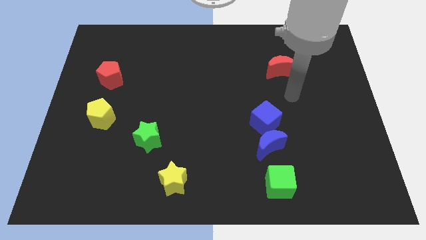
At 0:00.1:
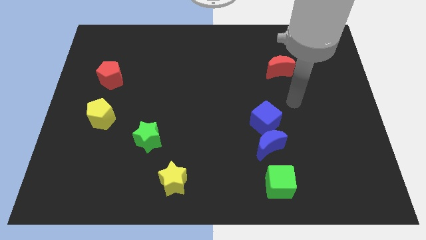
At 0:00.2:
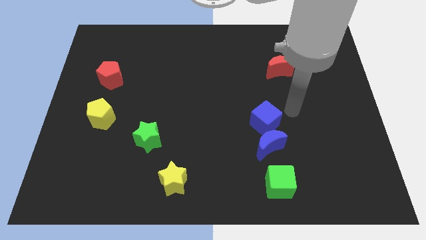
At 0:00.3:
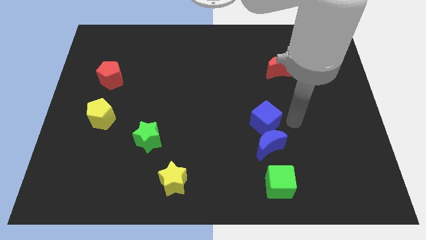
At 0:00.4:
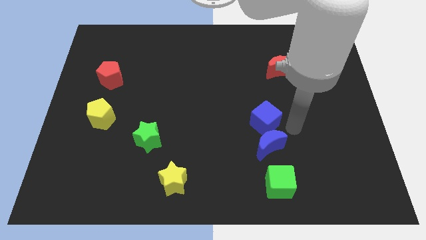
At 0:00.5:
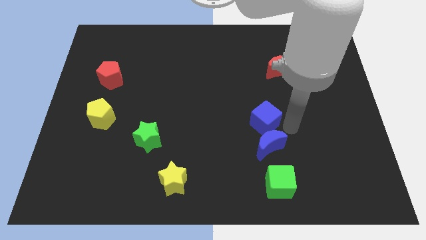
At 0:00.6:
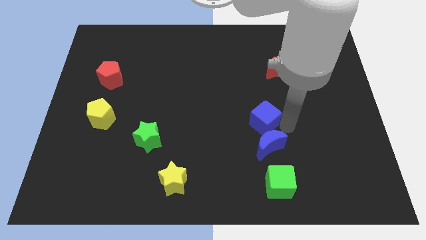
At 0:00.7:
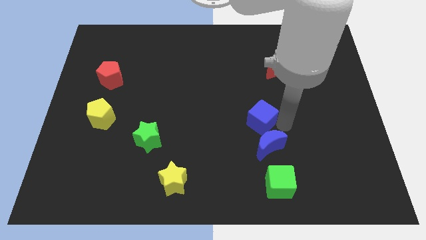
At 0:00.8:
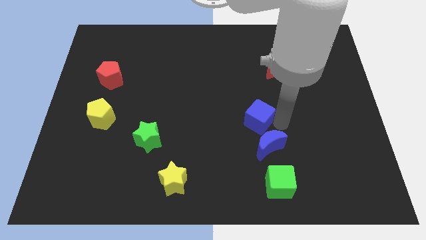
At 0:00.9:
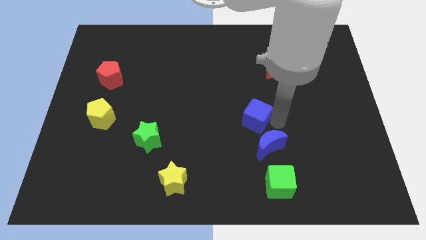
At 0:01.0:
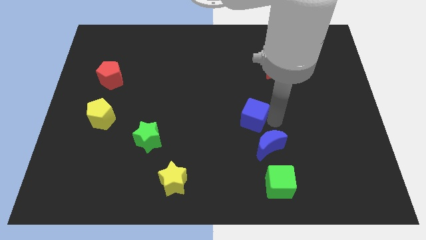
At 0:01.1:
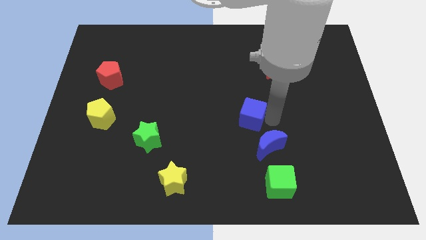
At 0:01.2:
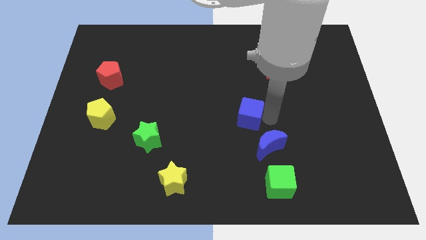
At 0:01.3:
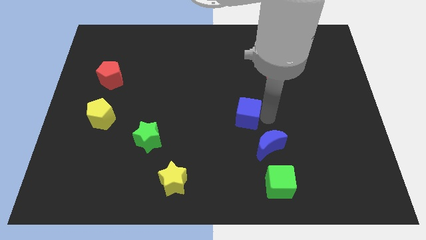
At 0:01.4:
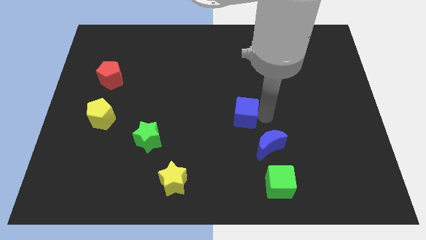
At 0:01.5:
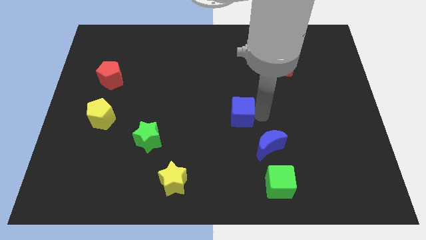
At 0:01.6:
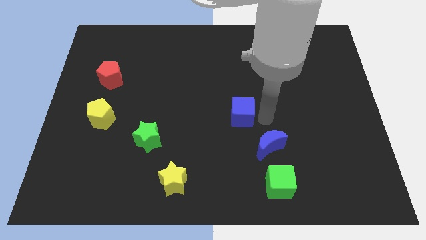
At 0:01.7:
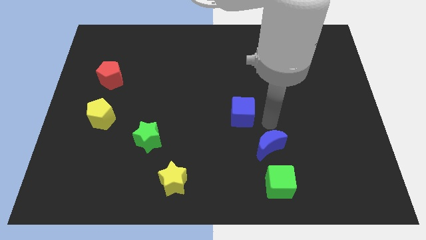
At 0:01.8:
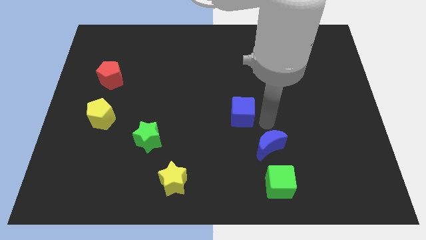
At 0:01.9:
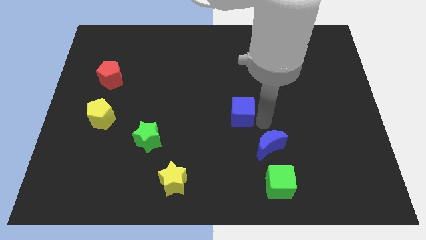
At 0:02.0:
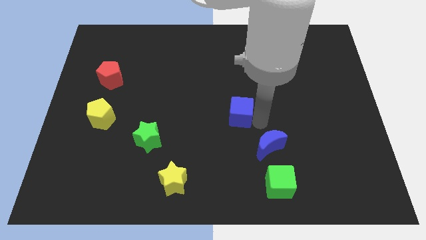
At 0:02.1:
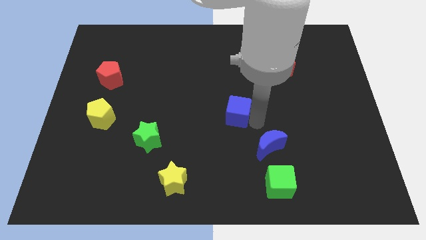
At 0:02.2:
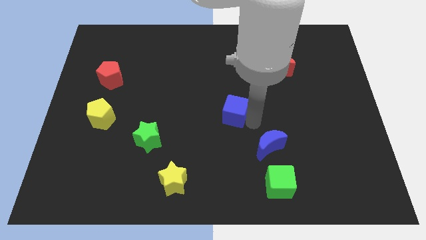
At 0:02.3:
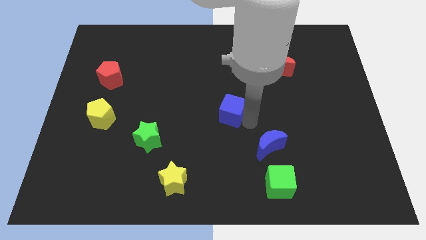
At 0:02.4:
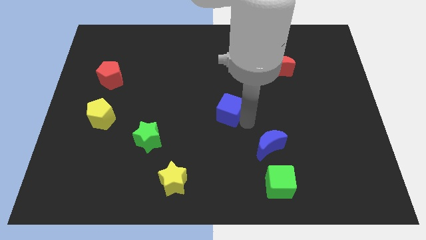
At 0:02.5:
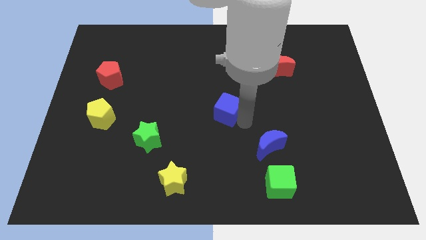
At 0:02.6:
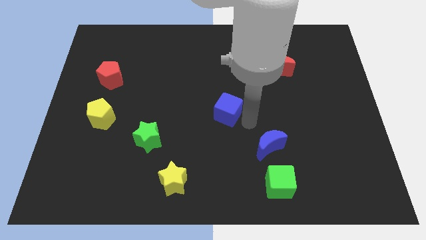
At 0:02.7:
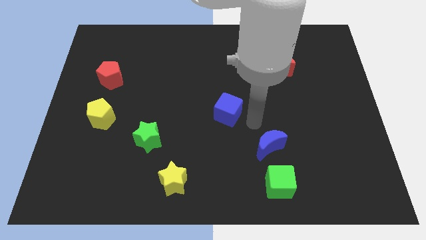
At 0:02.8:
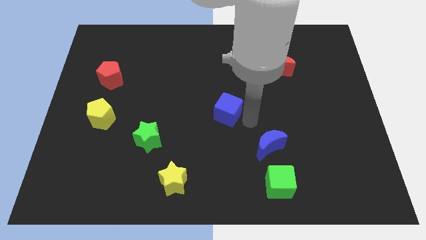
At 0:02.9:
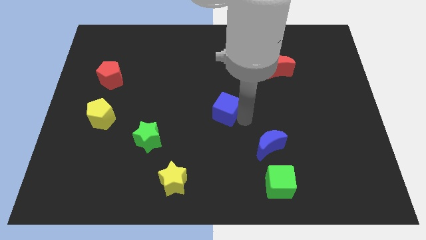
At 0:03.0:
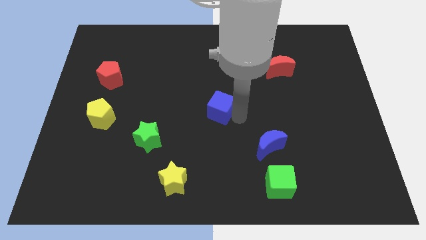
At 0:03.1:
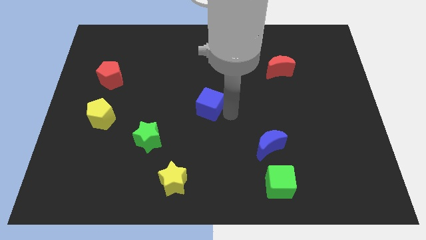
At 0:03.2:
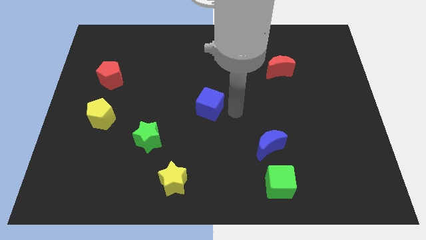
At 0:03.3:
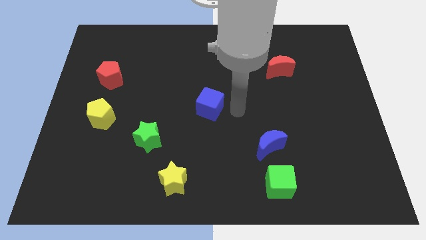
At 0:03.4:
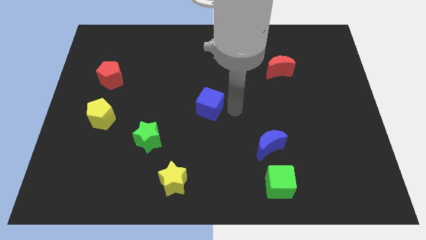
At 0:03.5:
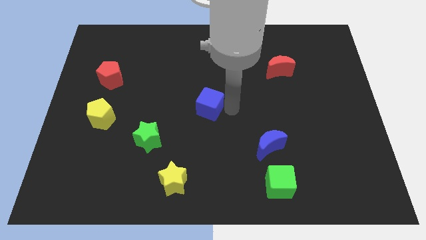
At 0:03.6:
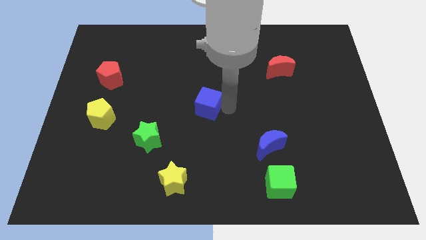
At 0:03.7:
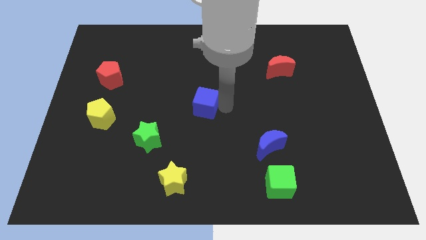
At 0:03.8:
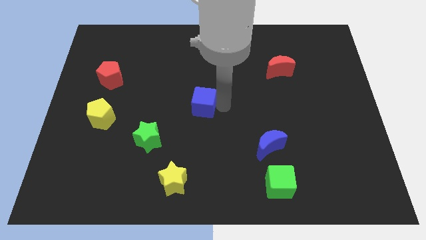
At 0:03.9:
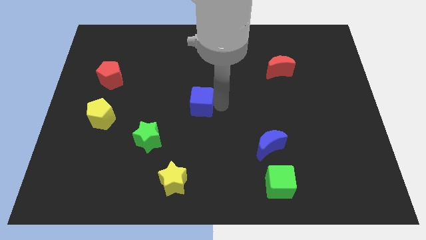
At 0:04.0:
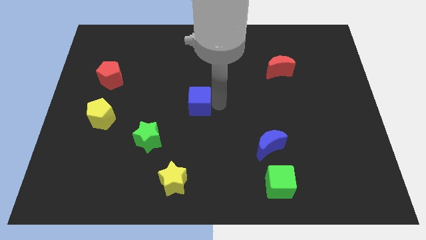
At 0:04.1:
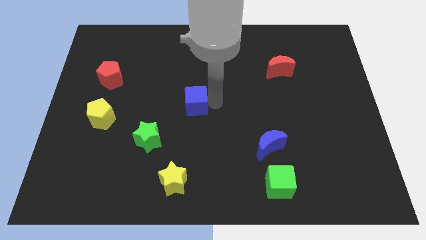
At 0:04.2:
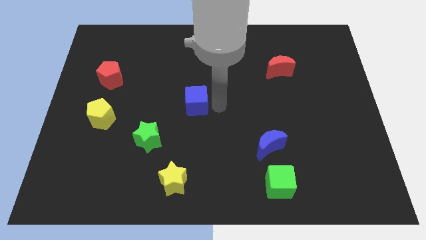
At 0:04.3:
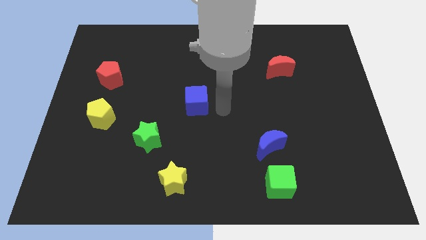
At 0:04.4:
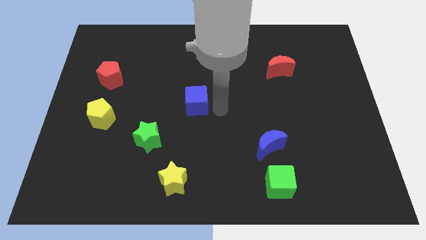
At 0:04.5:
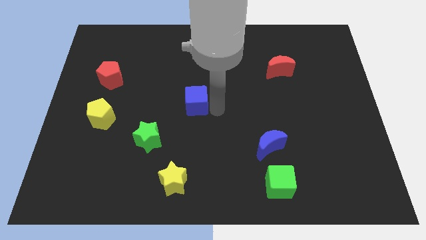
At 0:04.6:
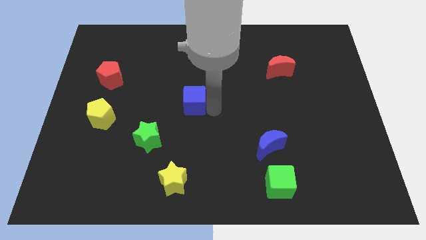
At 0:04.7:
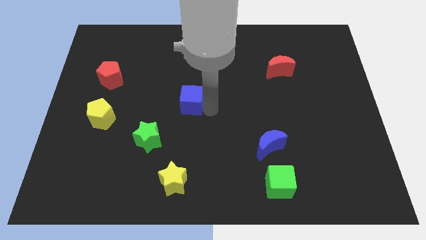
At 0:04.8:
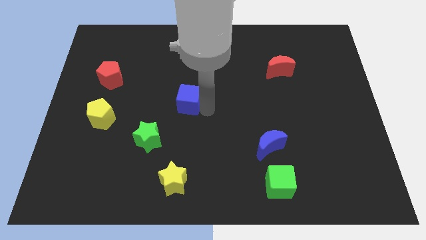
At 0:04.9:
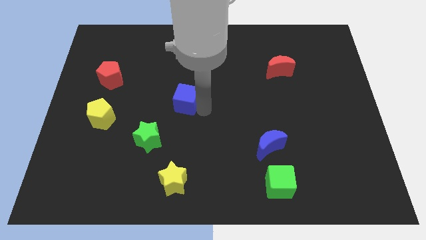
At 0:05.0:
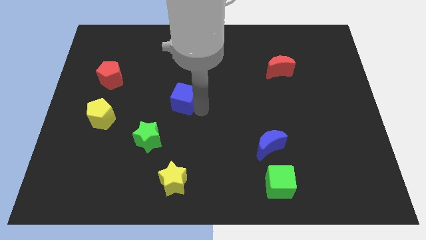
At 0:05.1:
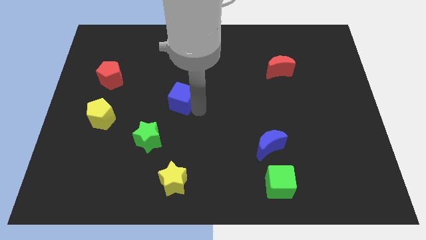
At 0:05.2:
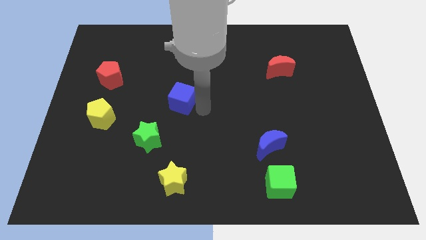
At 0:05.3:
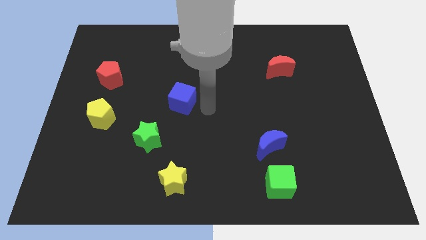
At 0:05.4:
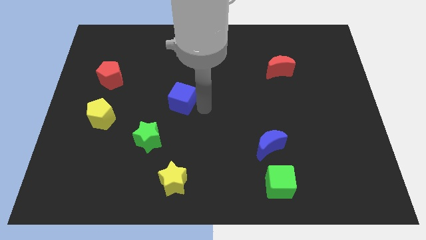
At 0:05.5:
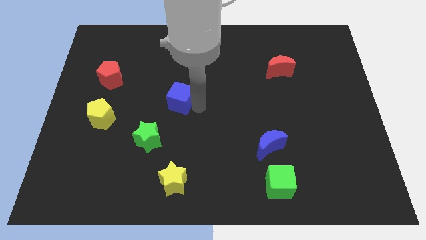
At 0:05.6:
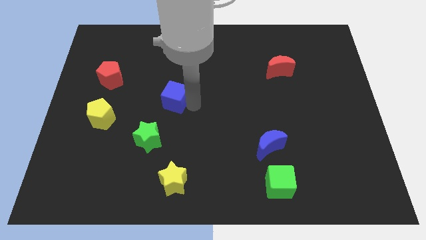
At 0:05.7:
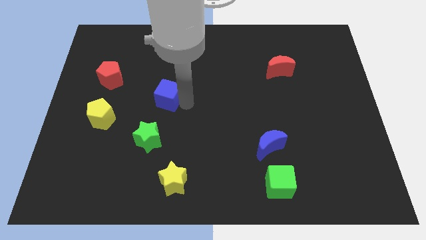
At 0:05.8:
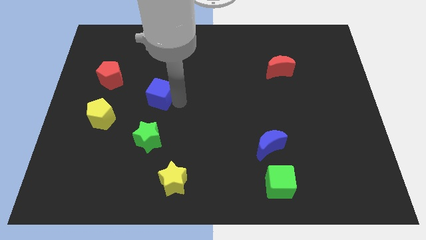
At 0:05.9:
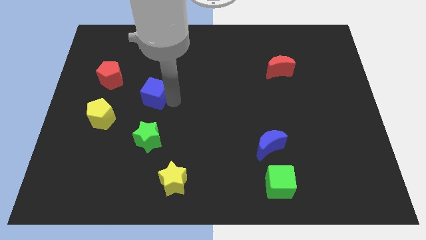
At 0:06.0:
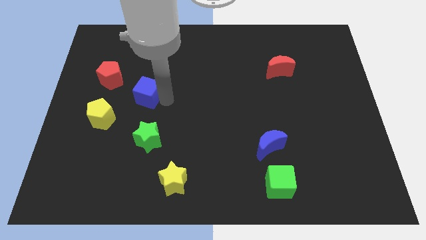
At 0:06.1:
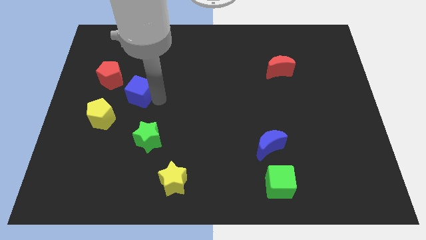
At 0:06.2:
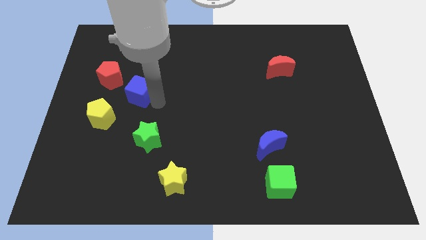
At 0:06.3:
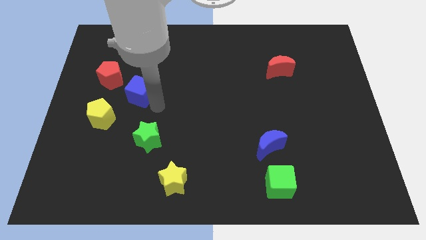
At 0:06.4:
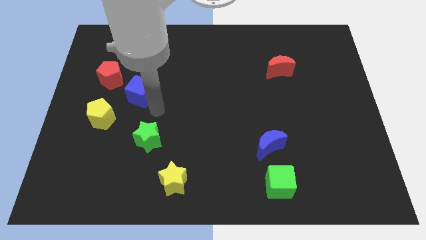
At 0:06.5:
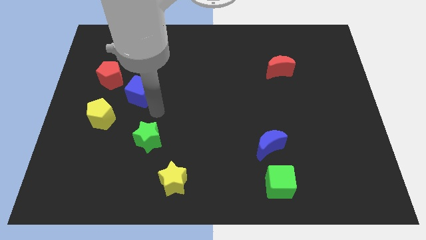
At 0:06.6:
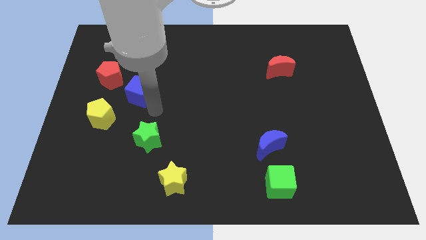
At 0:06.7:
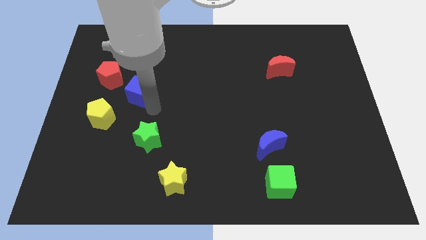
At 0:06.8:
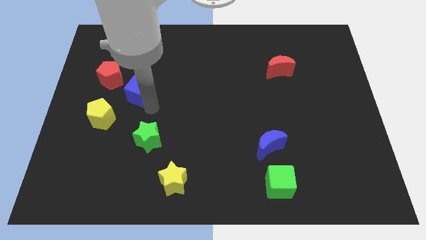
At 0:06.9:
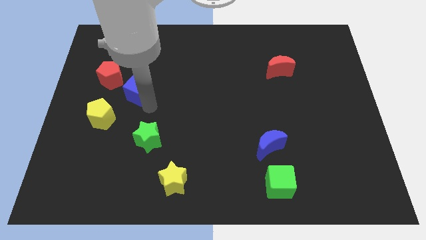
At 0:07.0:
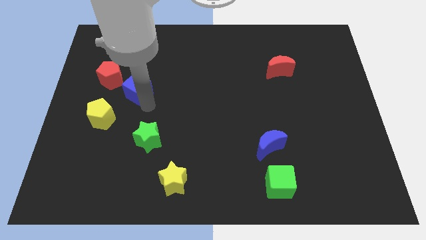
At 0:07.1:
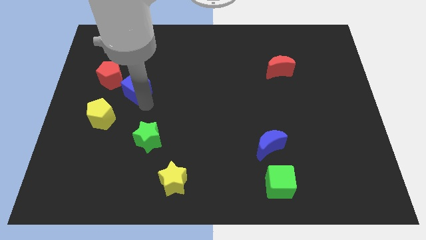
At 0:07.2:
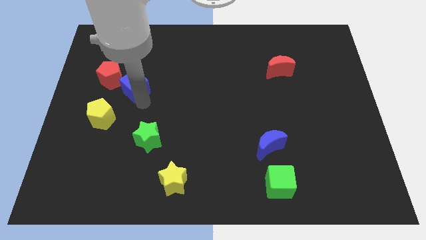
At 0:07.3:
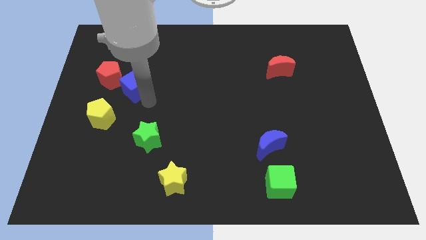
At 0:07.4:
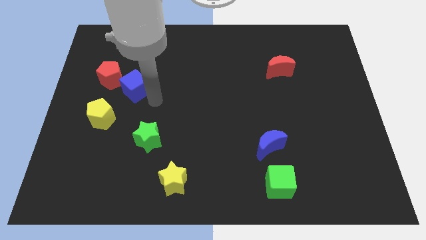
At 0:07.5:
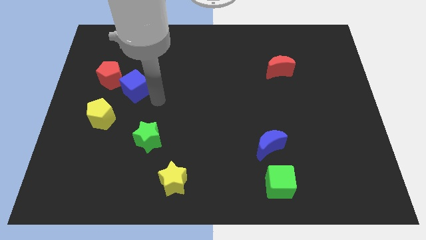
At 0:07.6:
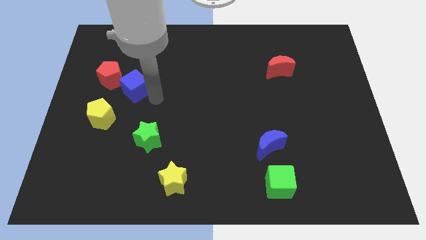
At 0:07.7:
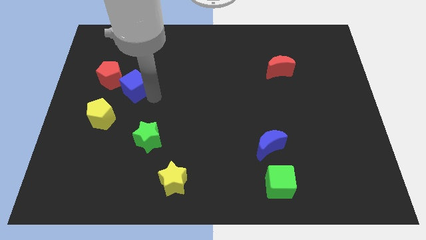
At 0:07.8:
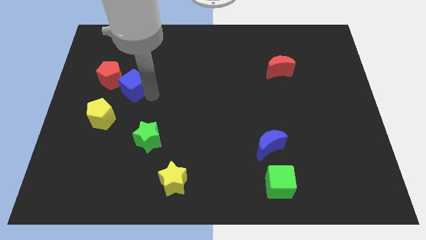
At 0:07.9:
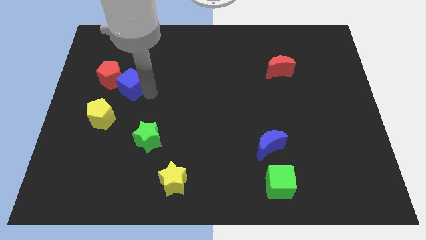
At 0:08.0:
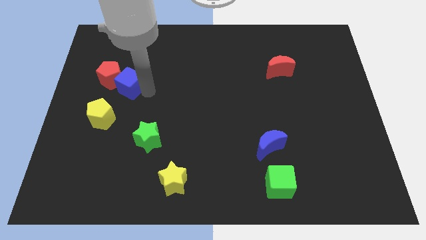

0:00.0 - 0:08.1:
push the blue cube close to the red pentagon
